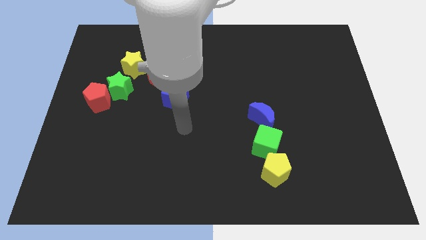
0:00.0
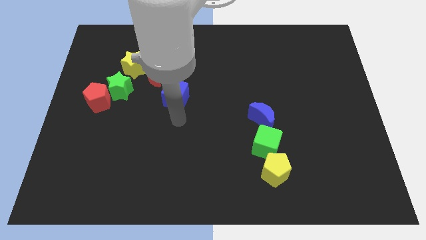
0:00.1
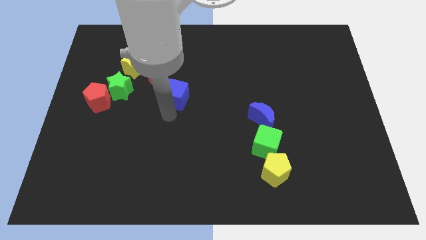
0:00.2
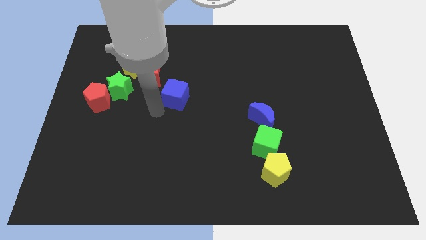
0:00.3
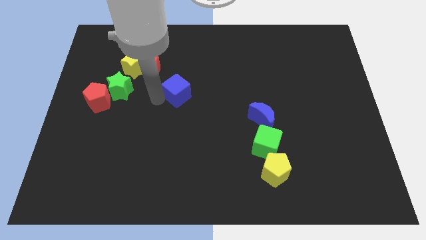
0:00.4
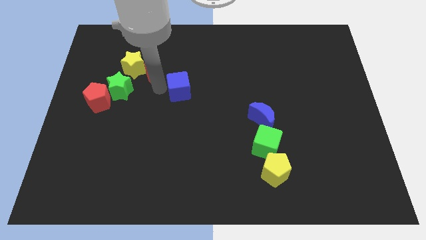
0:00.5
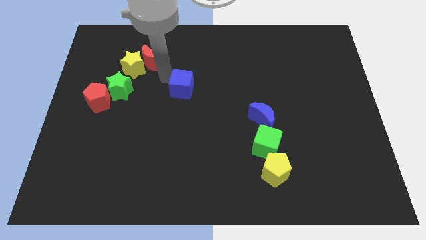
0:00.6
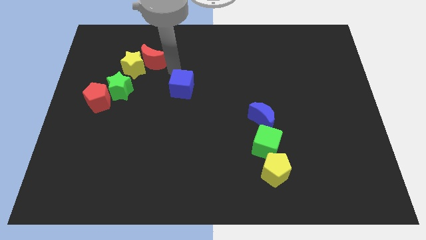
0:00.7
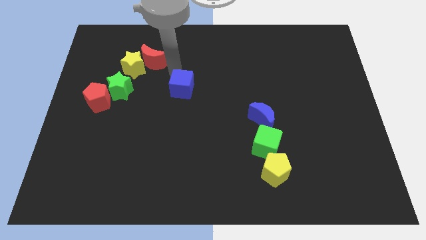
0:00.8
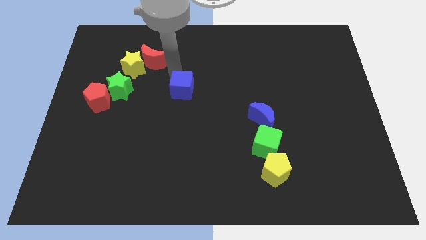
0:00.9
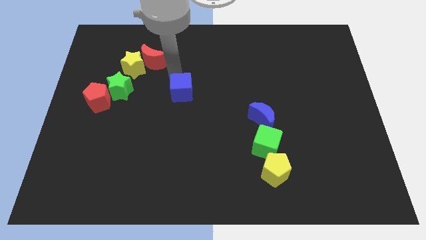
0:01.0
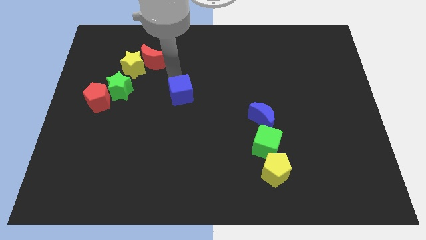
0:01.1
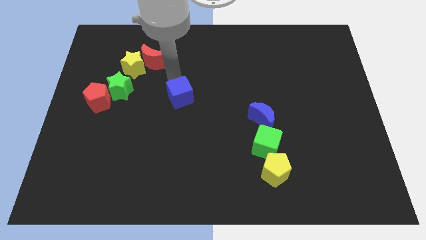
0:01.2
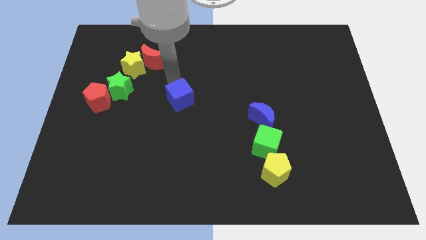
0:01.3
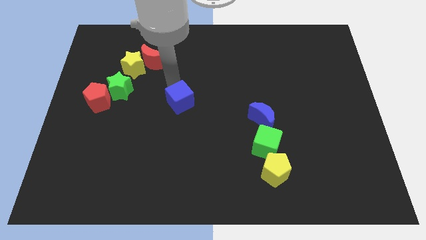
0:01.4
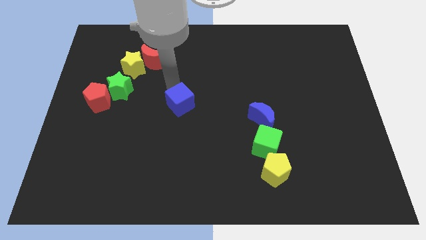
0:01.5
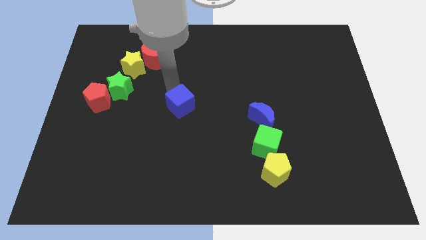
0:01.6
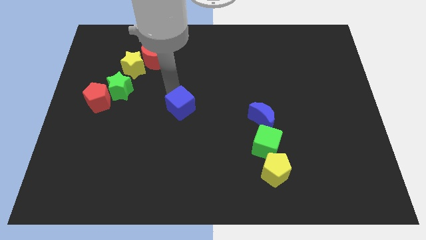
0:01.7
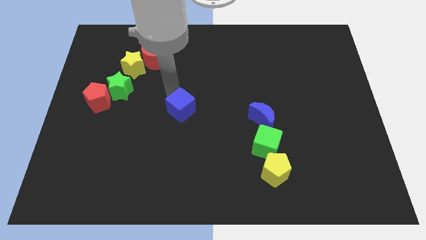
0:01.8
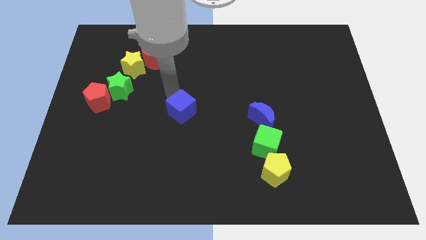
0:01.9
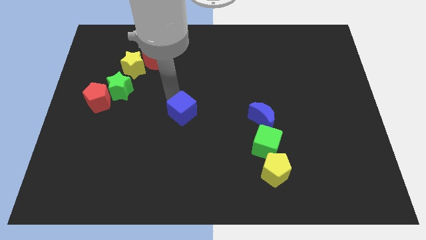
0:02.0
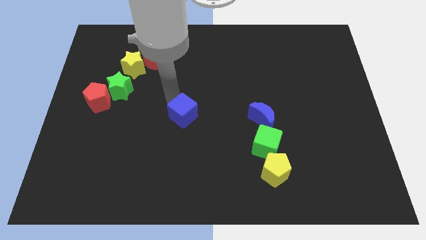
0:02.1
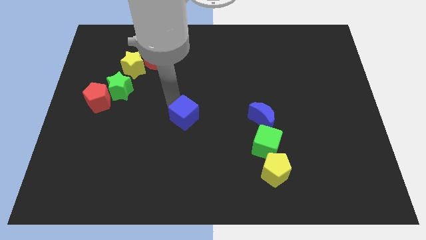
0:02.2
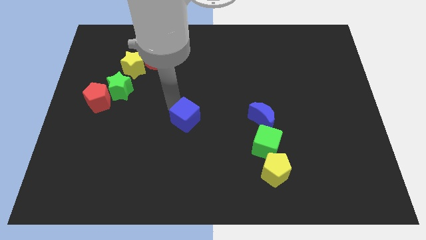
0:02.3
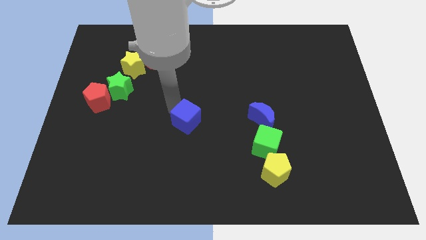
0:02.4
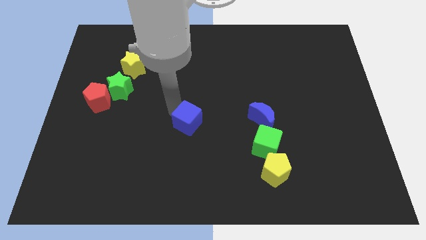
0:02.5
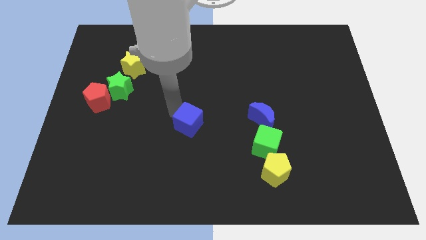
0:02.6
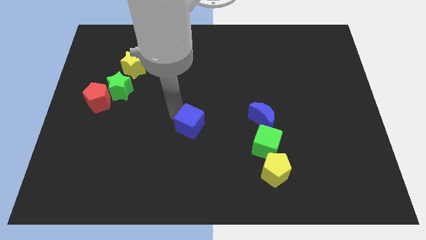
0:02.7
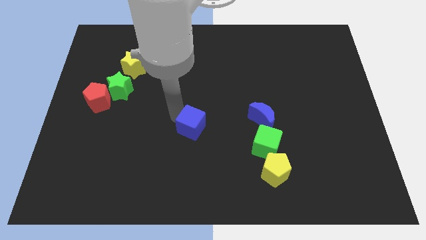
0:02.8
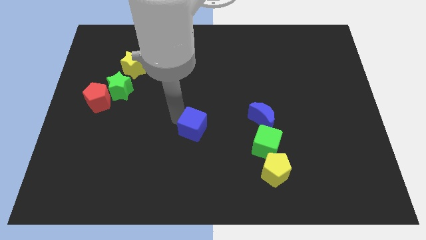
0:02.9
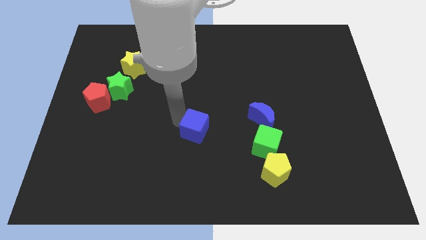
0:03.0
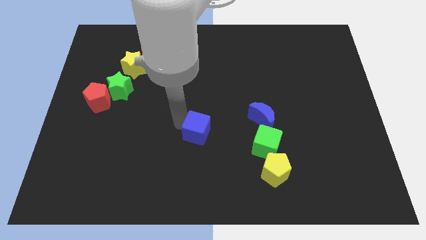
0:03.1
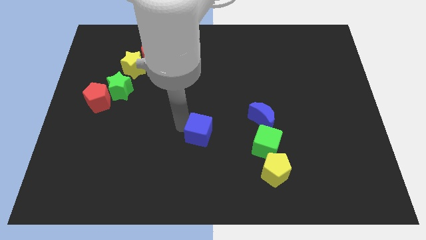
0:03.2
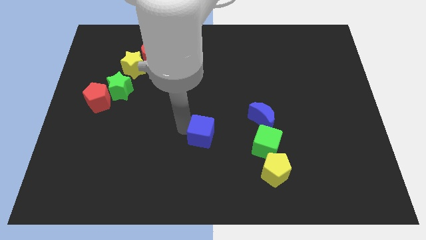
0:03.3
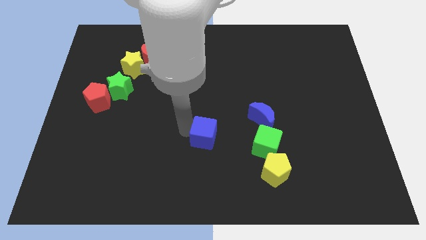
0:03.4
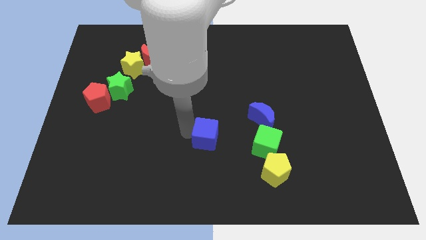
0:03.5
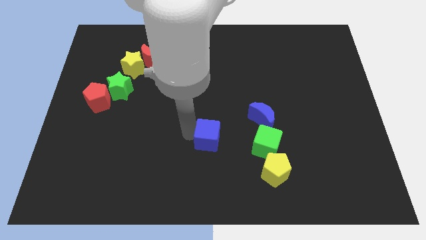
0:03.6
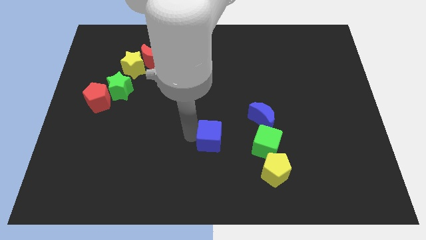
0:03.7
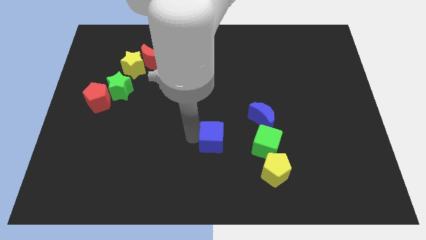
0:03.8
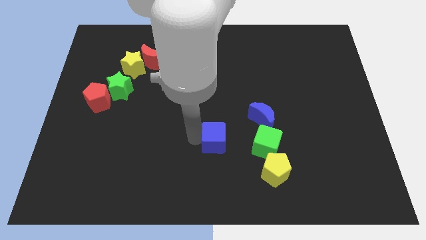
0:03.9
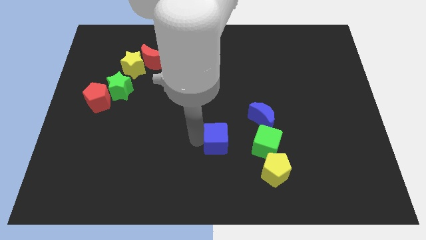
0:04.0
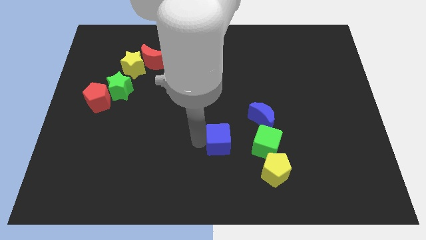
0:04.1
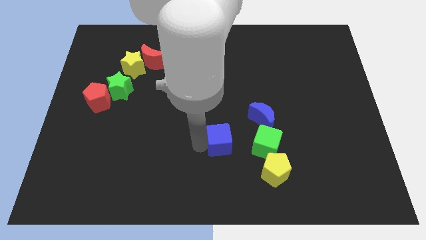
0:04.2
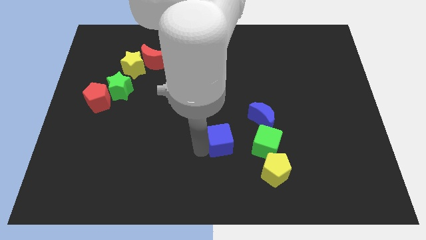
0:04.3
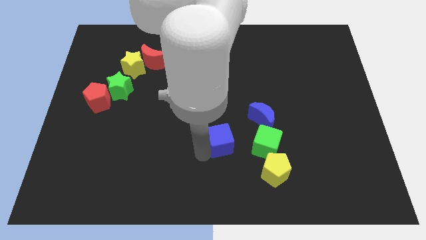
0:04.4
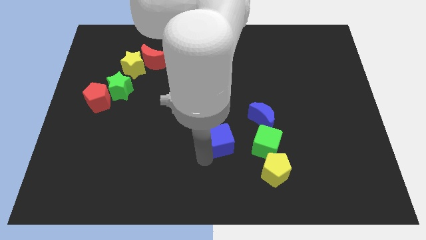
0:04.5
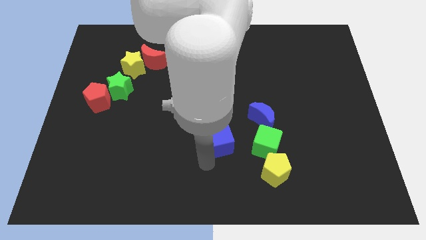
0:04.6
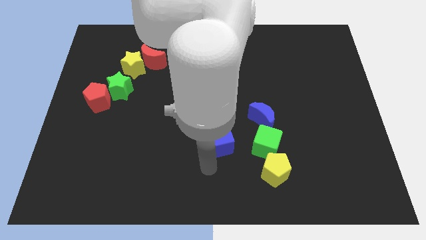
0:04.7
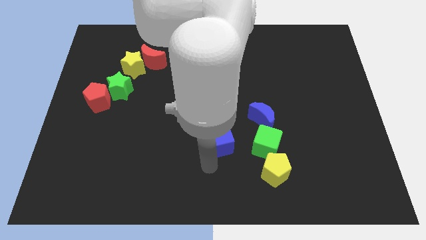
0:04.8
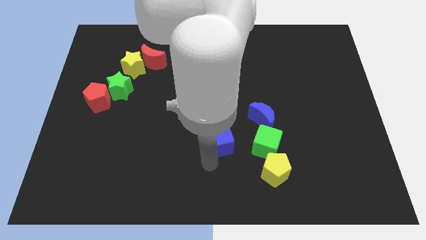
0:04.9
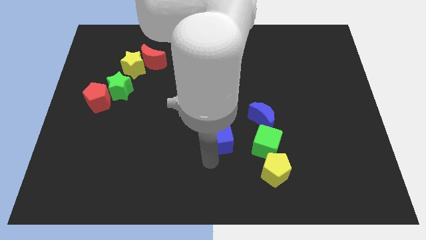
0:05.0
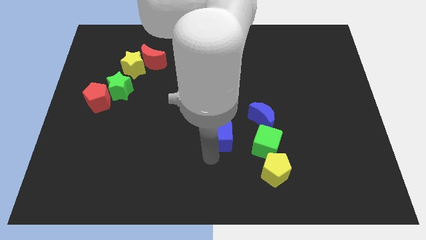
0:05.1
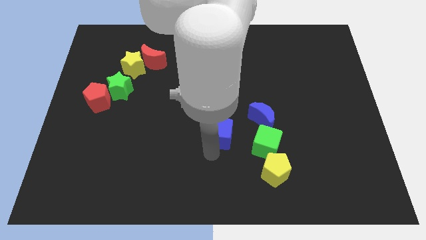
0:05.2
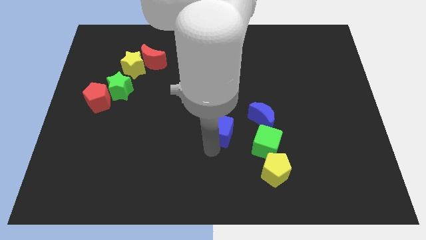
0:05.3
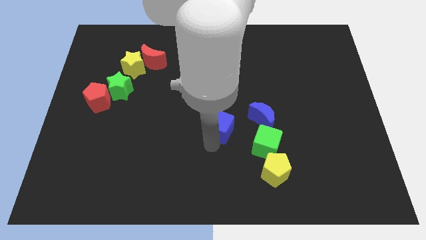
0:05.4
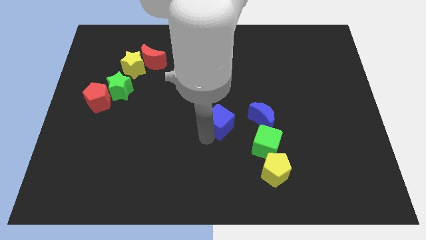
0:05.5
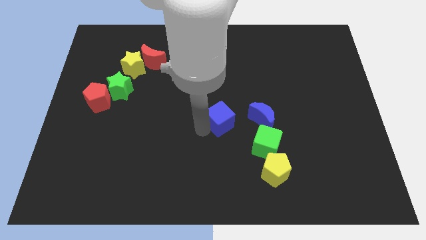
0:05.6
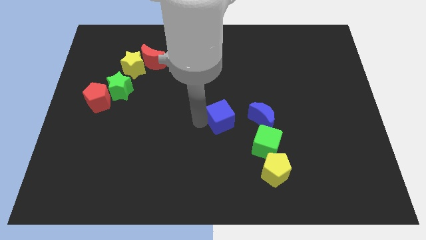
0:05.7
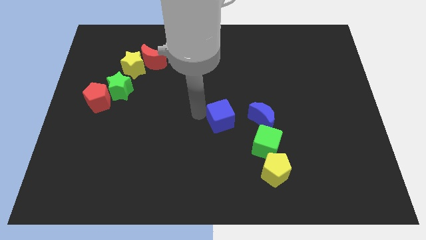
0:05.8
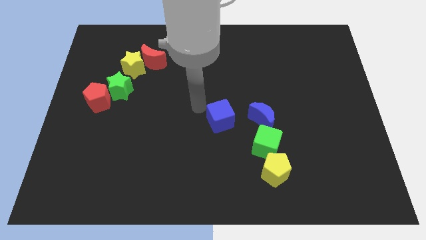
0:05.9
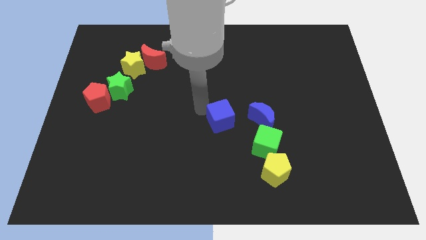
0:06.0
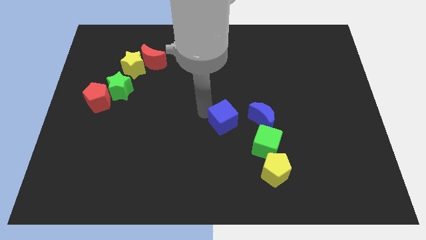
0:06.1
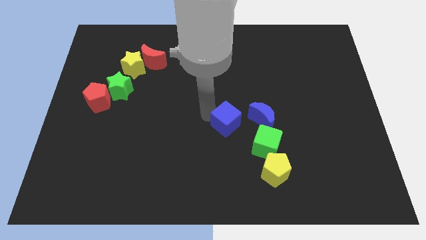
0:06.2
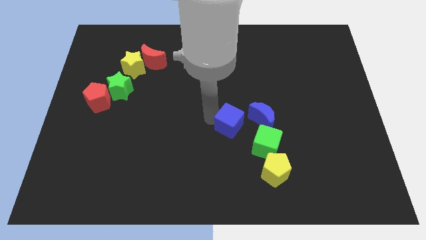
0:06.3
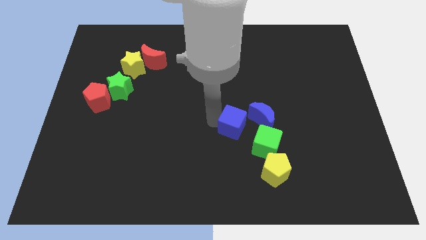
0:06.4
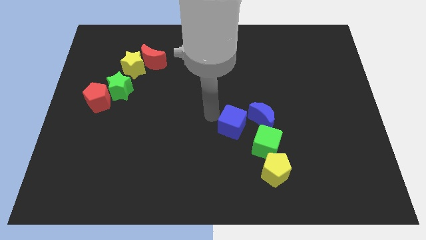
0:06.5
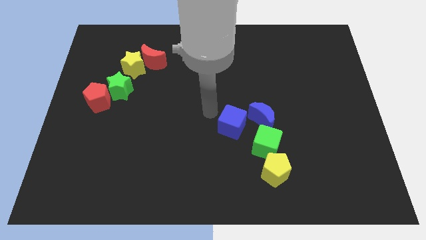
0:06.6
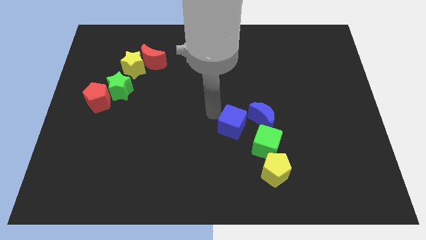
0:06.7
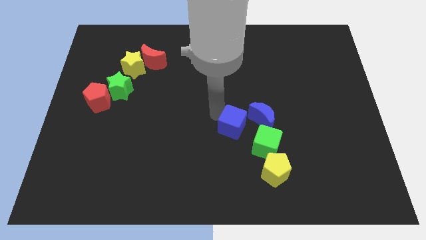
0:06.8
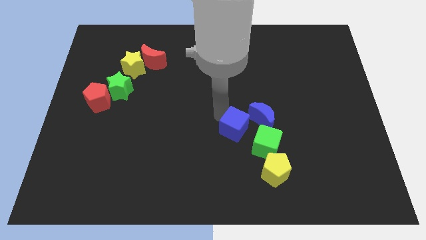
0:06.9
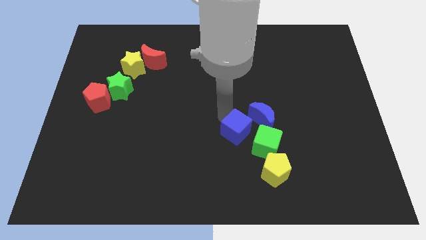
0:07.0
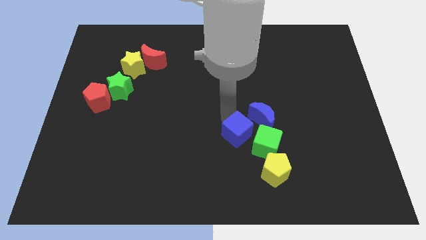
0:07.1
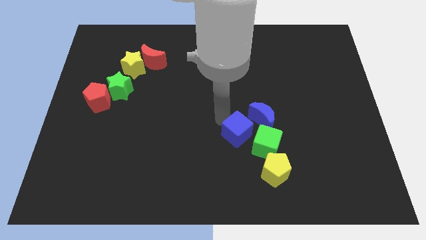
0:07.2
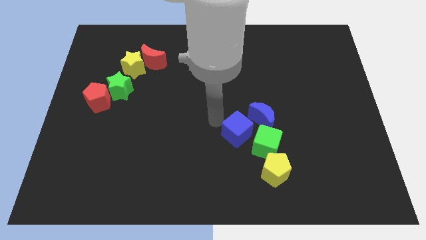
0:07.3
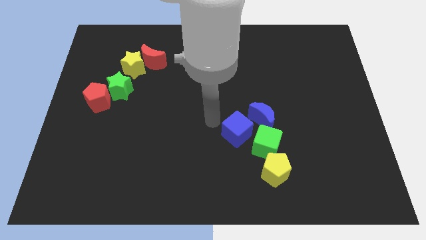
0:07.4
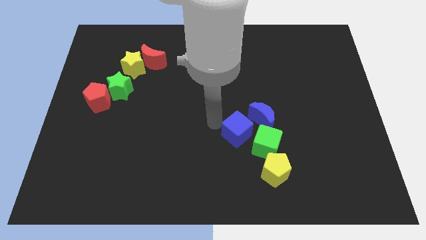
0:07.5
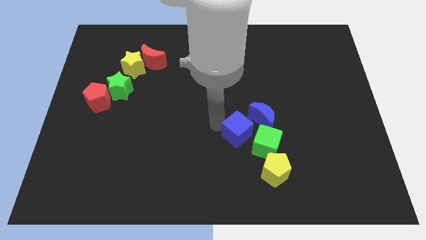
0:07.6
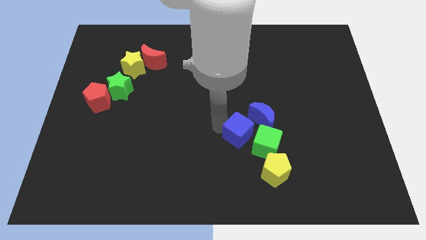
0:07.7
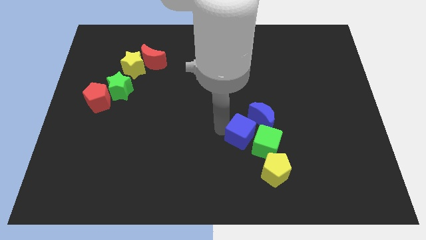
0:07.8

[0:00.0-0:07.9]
slide the blue cube to the green cube
